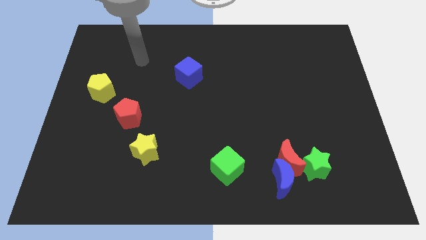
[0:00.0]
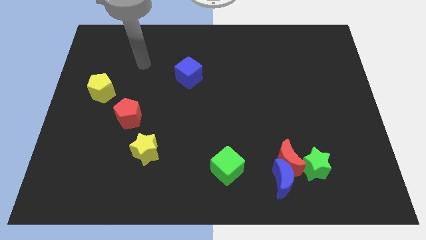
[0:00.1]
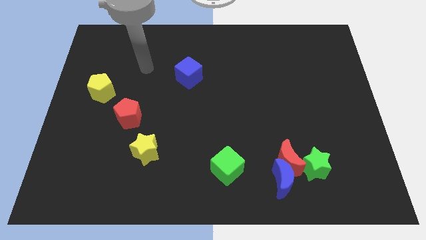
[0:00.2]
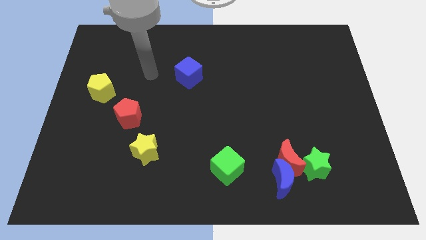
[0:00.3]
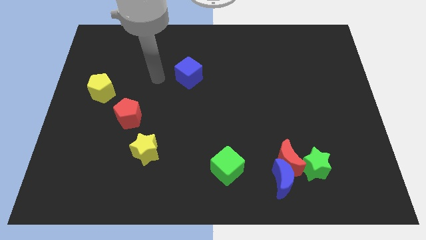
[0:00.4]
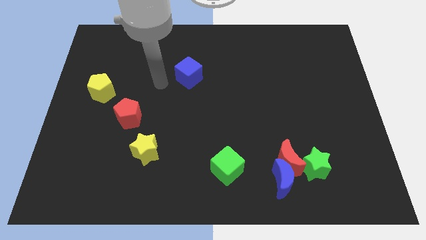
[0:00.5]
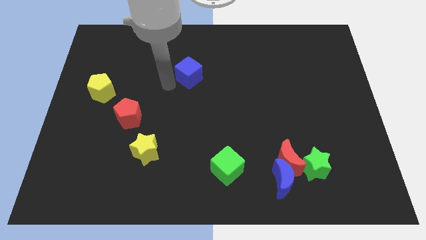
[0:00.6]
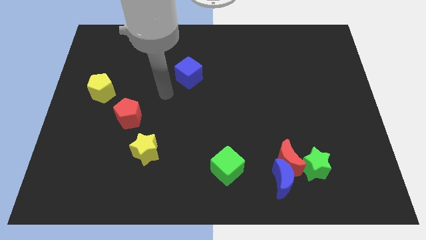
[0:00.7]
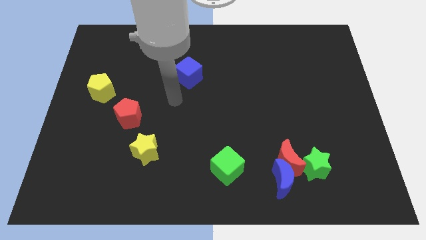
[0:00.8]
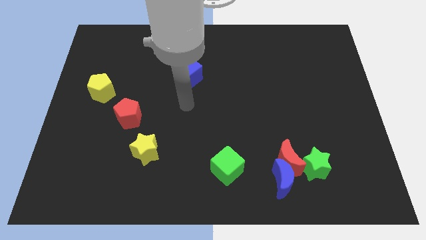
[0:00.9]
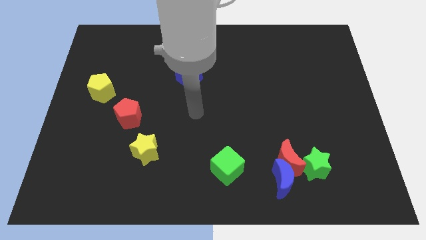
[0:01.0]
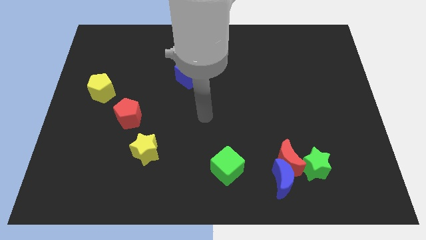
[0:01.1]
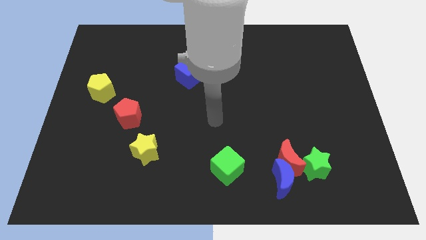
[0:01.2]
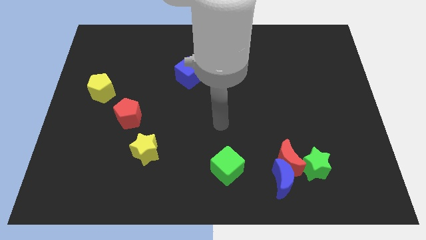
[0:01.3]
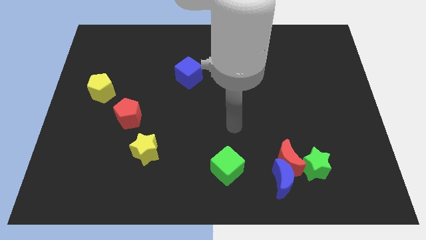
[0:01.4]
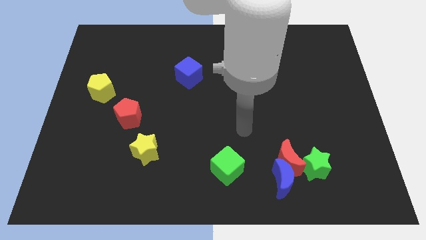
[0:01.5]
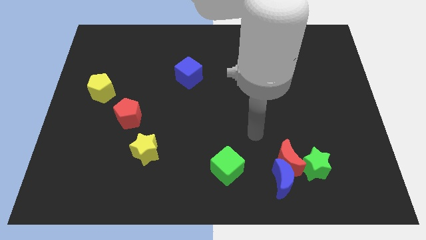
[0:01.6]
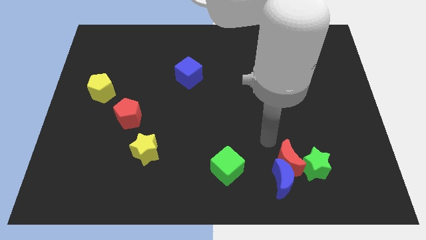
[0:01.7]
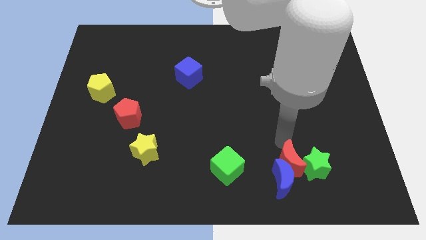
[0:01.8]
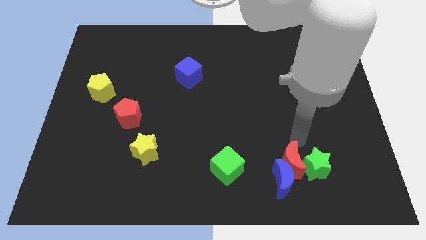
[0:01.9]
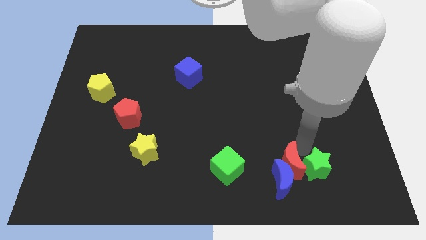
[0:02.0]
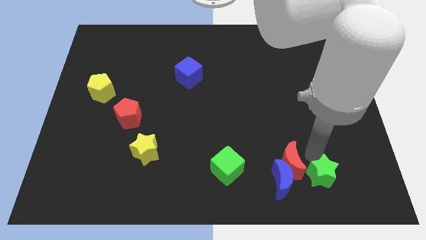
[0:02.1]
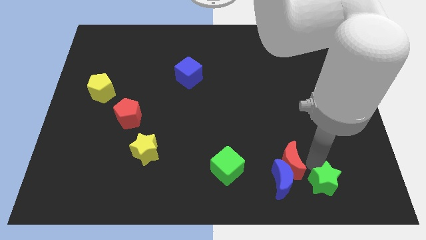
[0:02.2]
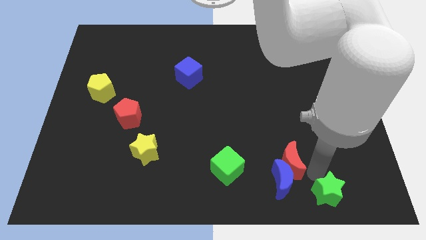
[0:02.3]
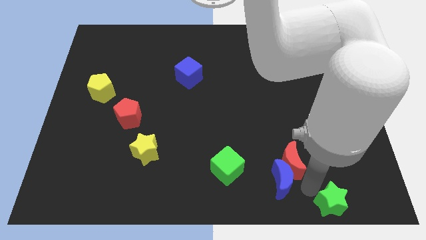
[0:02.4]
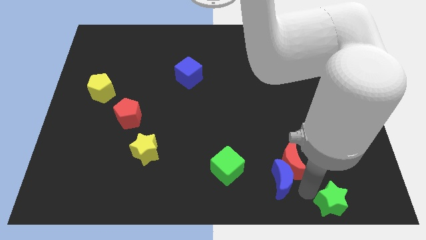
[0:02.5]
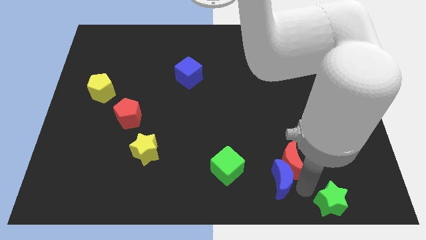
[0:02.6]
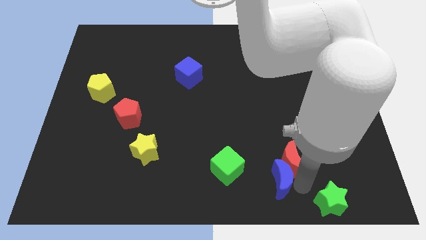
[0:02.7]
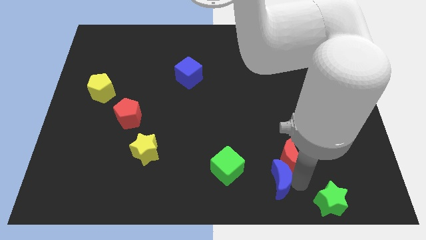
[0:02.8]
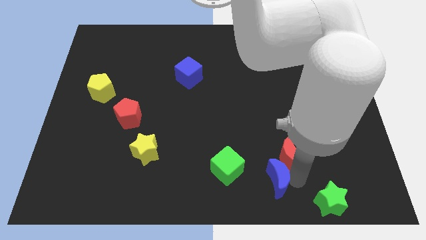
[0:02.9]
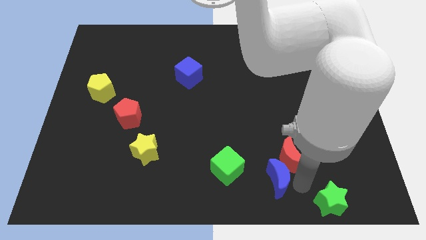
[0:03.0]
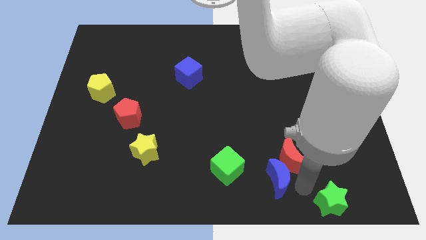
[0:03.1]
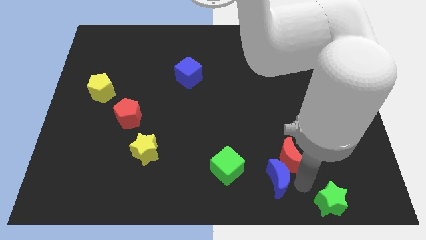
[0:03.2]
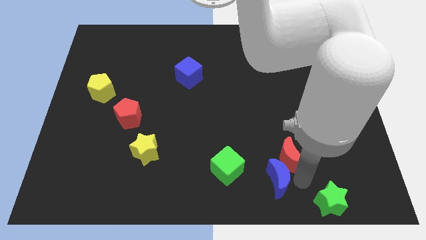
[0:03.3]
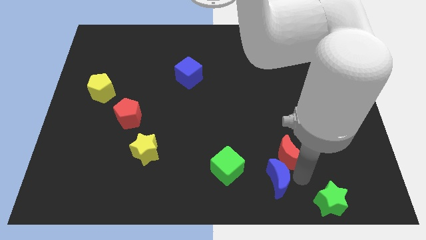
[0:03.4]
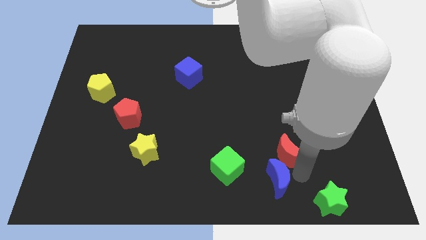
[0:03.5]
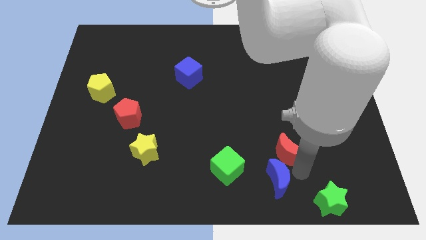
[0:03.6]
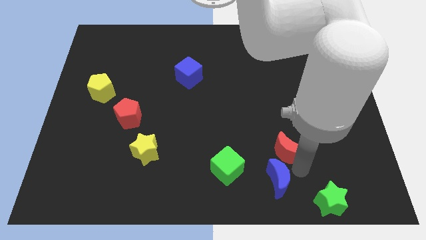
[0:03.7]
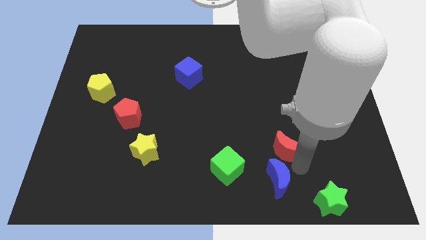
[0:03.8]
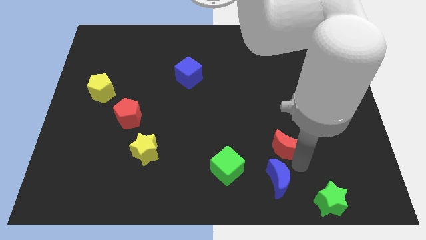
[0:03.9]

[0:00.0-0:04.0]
pull the red moon apart from the blue moon and green star

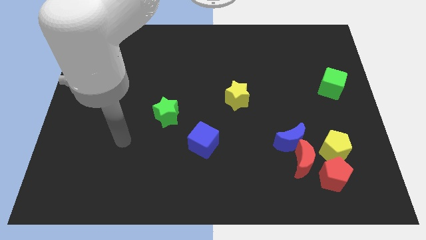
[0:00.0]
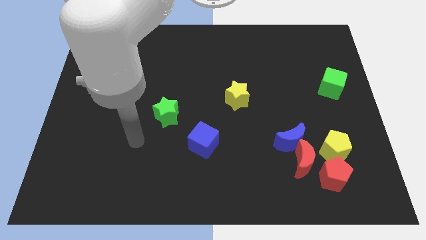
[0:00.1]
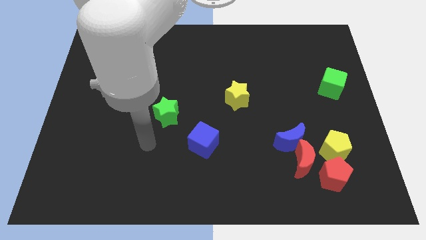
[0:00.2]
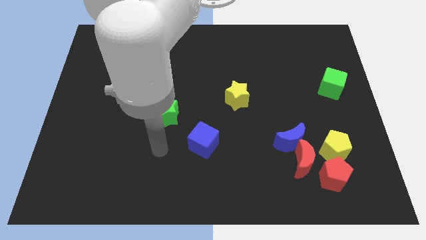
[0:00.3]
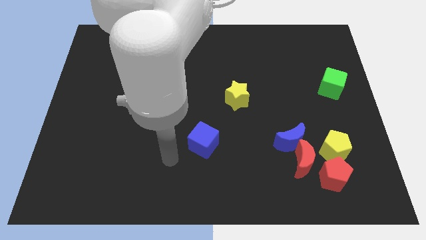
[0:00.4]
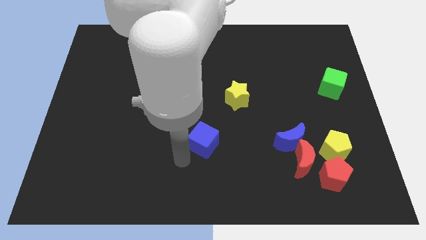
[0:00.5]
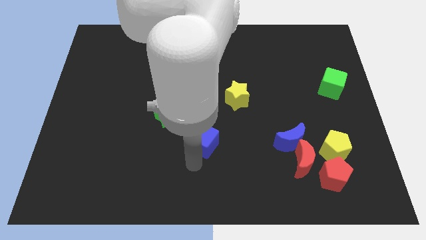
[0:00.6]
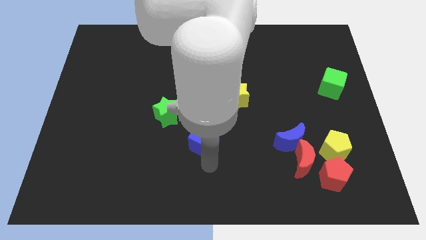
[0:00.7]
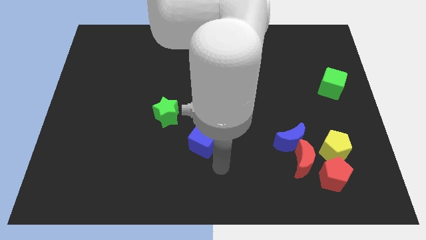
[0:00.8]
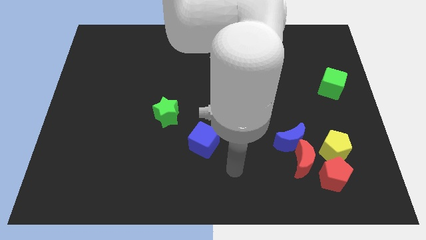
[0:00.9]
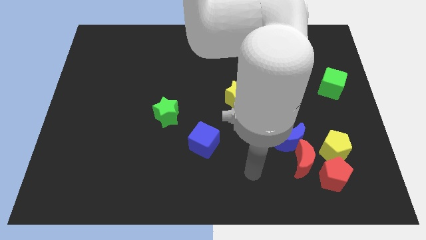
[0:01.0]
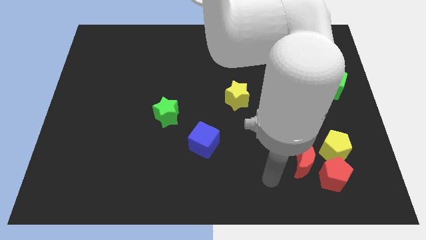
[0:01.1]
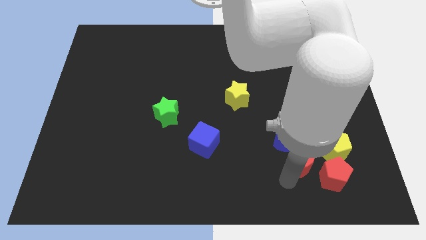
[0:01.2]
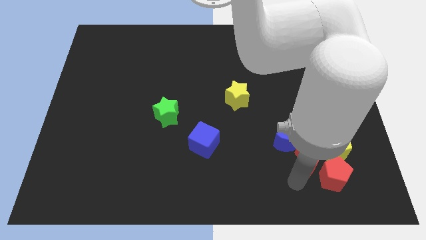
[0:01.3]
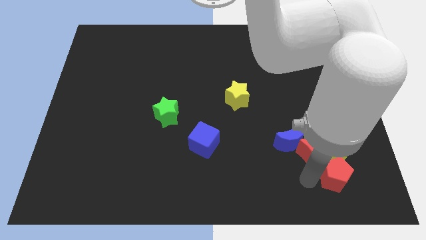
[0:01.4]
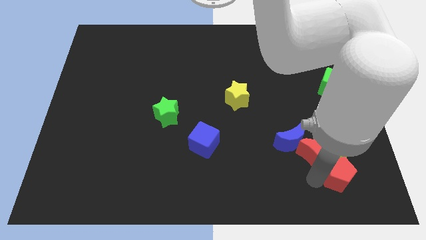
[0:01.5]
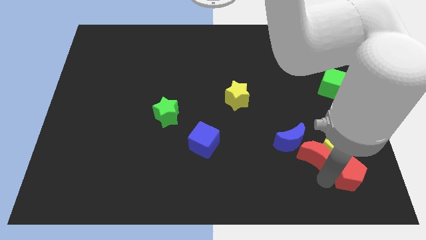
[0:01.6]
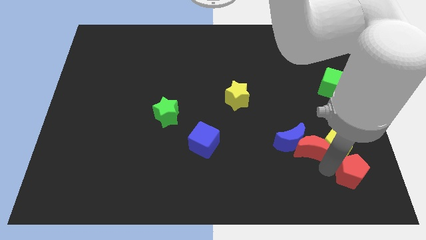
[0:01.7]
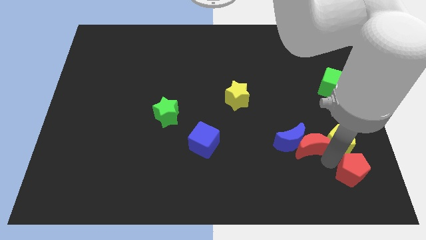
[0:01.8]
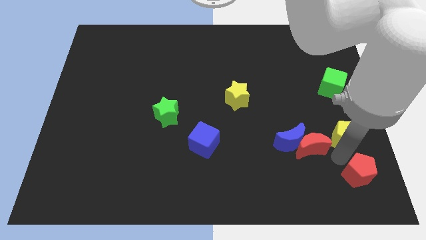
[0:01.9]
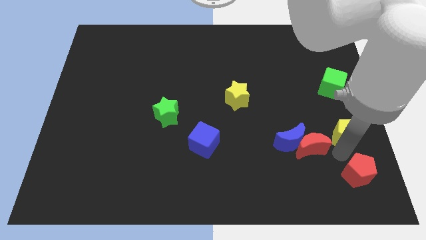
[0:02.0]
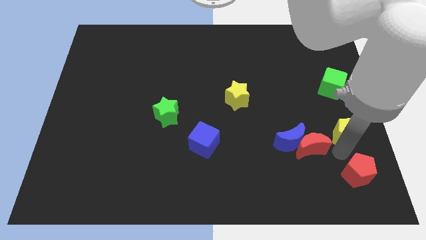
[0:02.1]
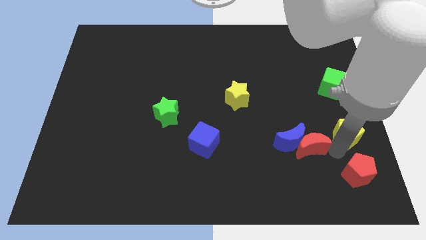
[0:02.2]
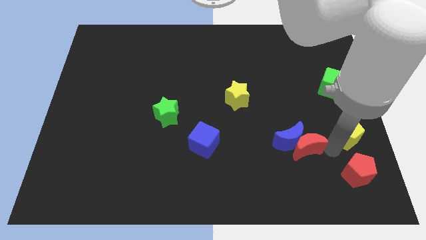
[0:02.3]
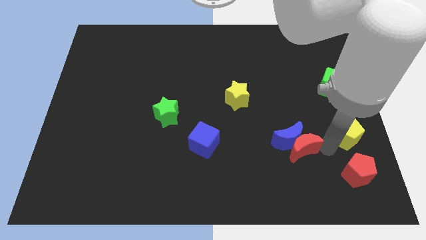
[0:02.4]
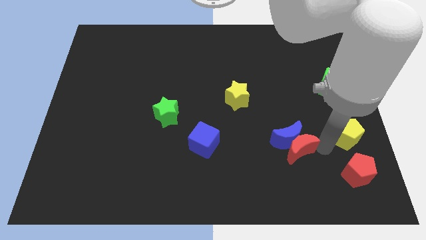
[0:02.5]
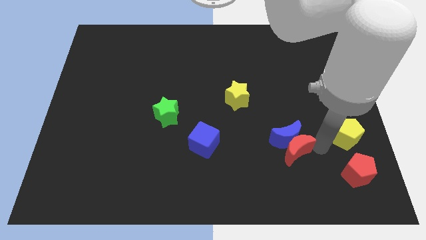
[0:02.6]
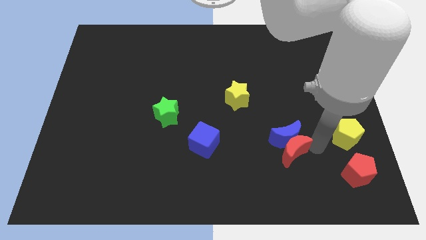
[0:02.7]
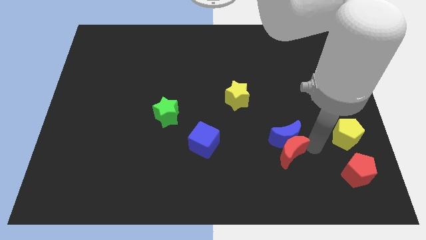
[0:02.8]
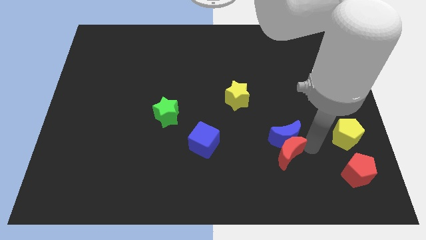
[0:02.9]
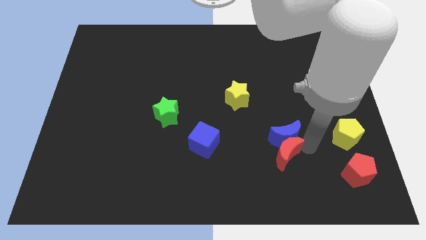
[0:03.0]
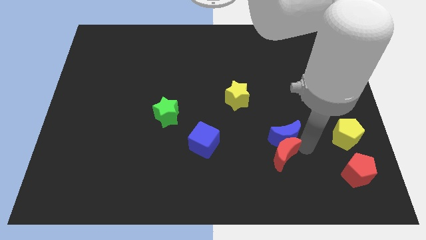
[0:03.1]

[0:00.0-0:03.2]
separate the red moon from the blue moon, red pentagon, and yellow pentagon

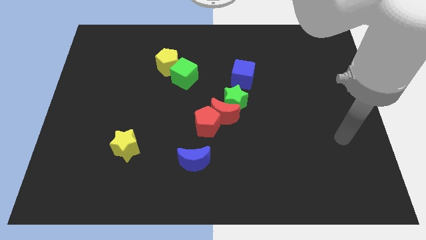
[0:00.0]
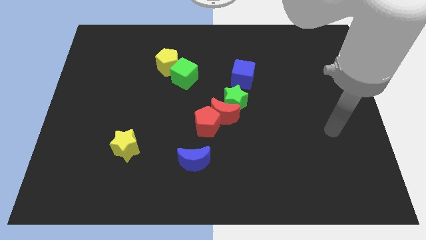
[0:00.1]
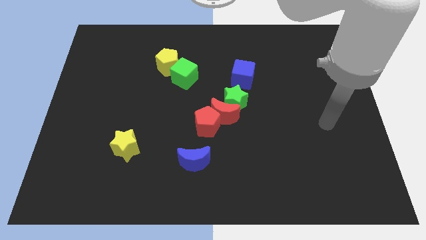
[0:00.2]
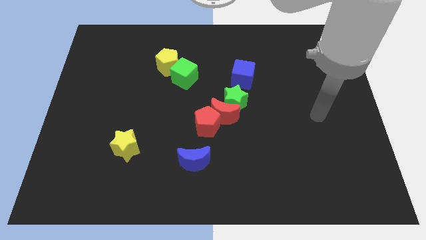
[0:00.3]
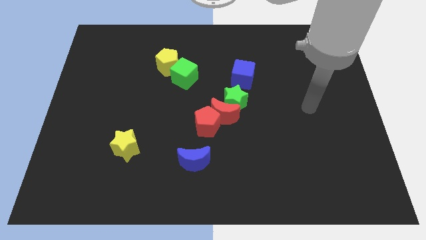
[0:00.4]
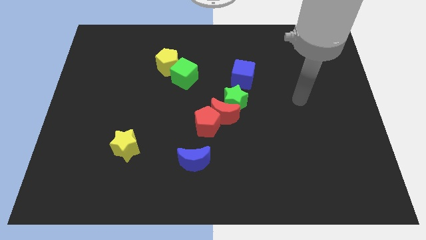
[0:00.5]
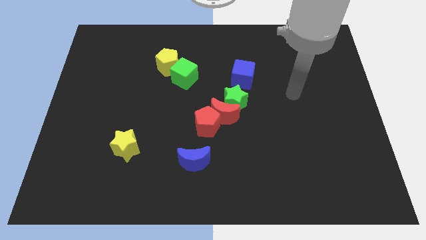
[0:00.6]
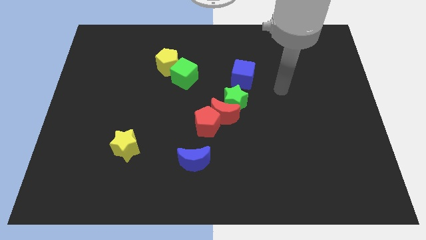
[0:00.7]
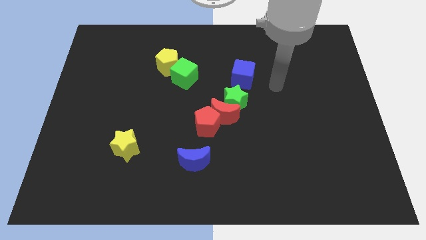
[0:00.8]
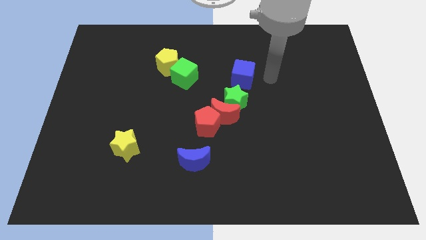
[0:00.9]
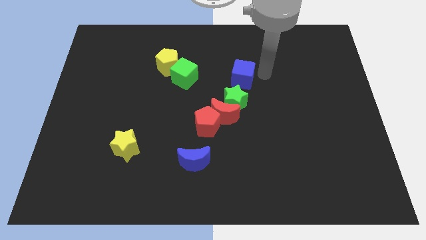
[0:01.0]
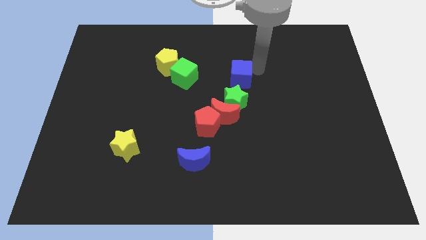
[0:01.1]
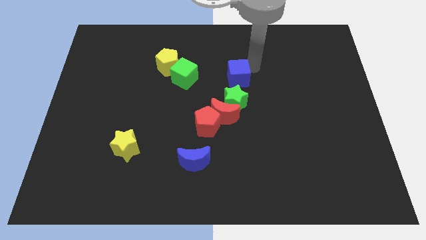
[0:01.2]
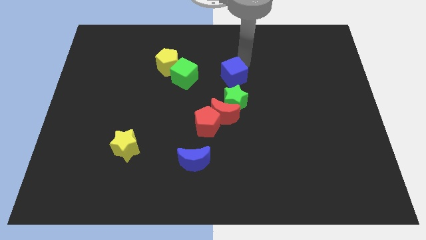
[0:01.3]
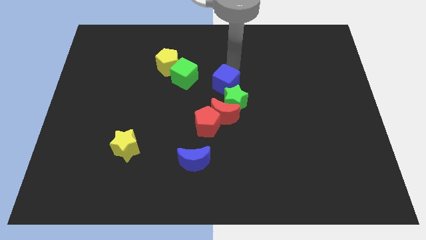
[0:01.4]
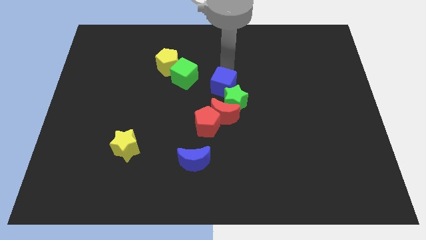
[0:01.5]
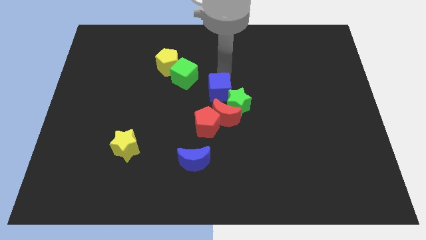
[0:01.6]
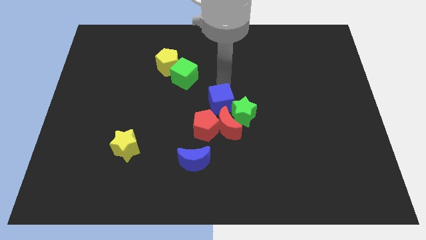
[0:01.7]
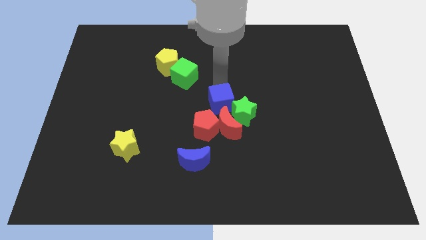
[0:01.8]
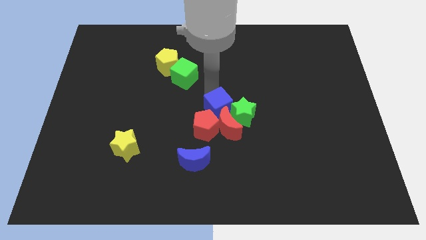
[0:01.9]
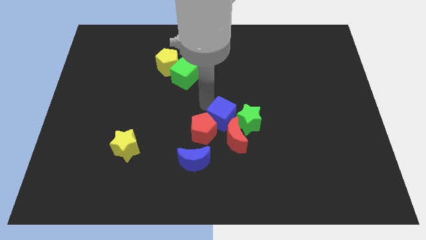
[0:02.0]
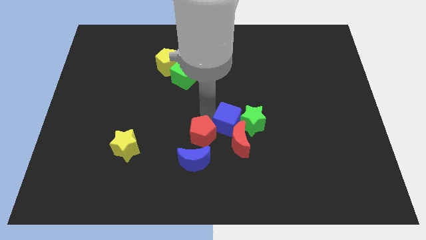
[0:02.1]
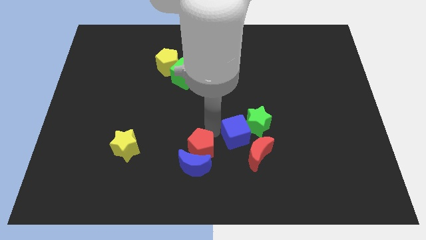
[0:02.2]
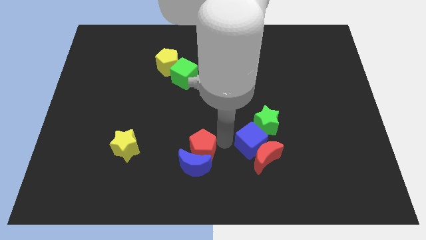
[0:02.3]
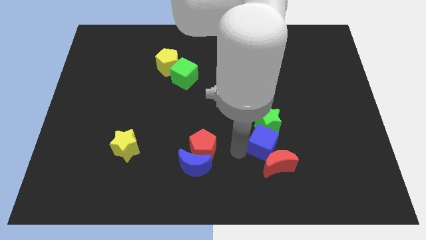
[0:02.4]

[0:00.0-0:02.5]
move the red moon away from the green star and red pentagon
